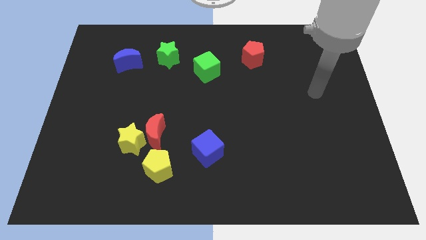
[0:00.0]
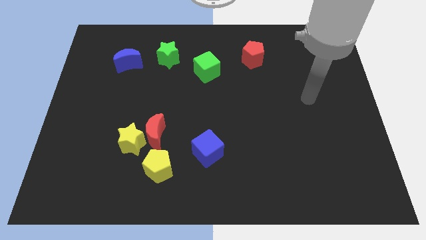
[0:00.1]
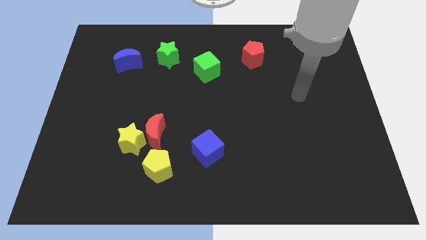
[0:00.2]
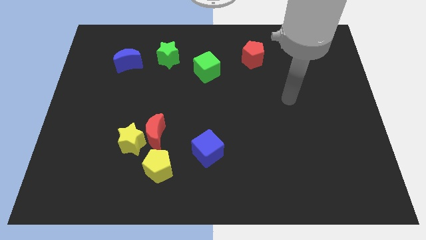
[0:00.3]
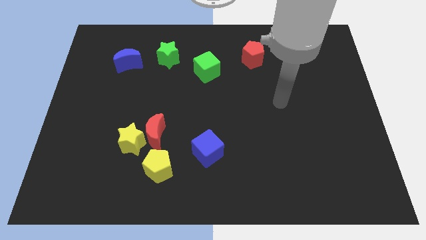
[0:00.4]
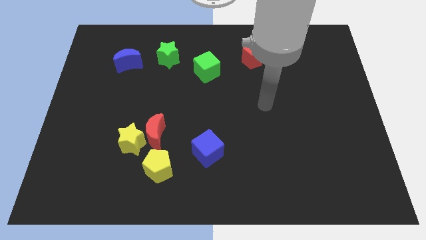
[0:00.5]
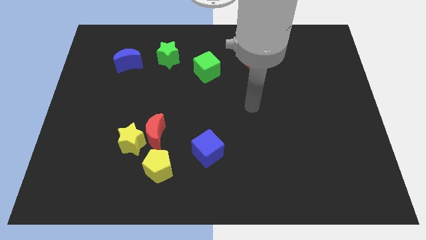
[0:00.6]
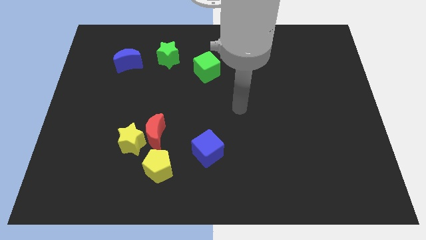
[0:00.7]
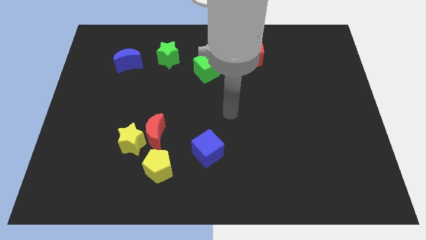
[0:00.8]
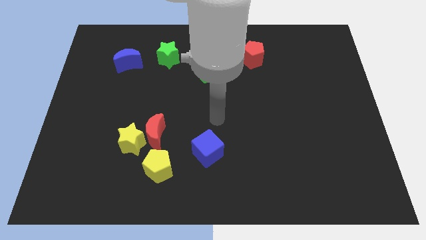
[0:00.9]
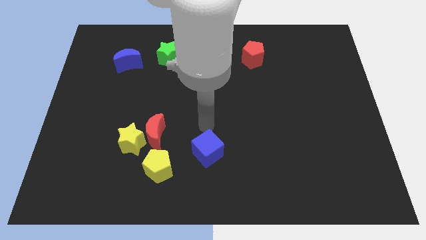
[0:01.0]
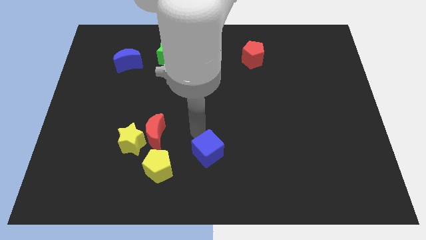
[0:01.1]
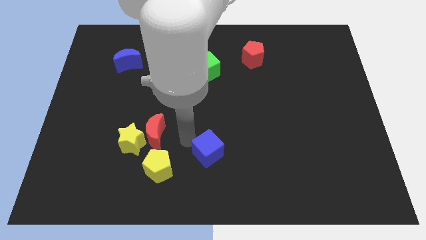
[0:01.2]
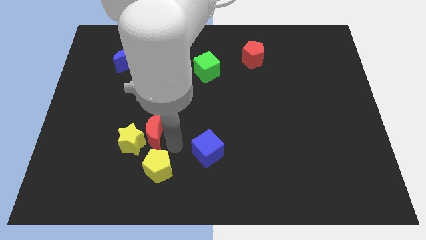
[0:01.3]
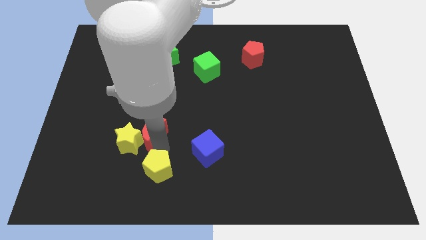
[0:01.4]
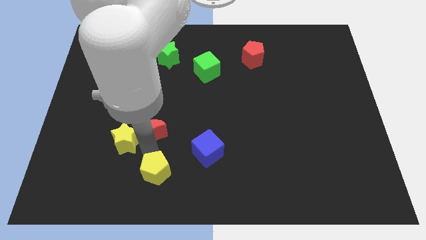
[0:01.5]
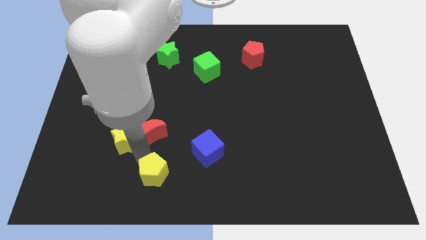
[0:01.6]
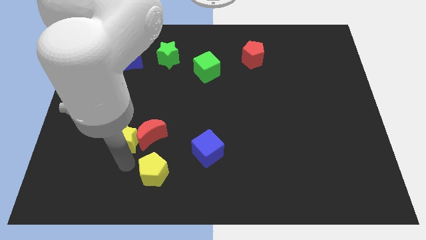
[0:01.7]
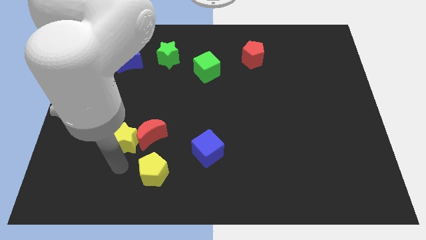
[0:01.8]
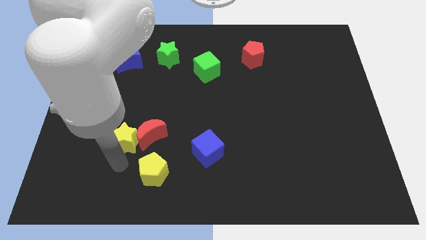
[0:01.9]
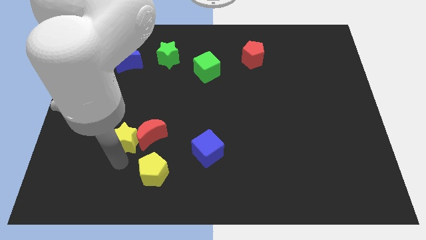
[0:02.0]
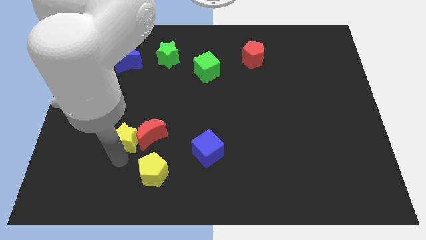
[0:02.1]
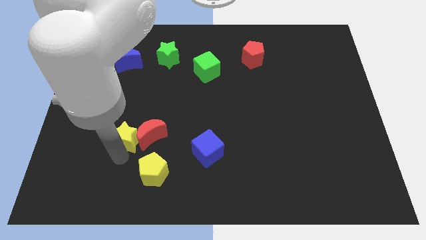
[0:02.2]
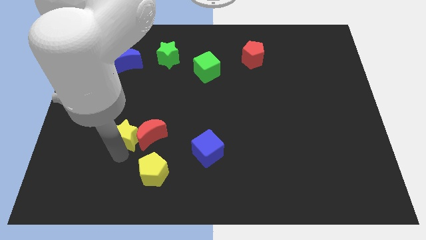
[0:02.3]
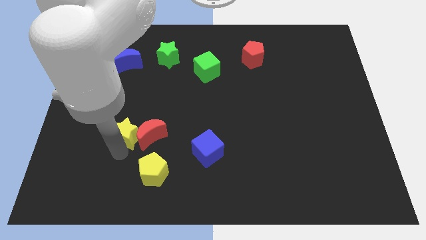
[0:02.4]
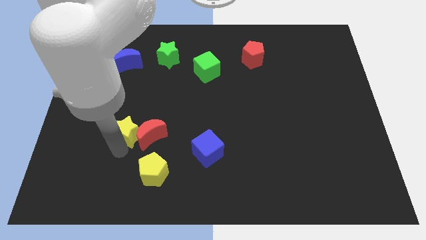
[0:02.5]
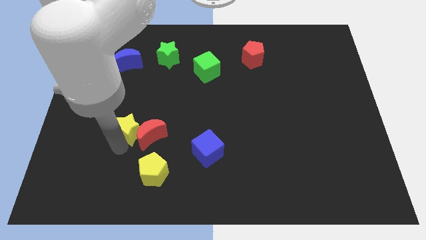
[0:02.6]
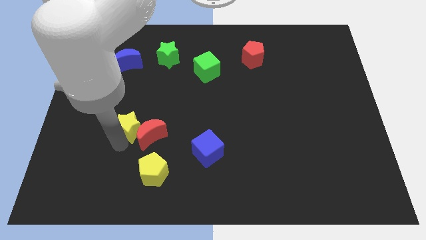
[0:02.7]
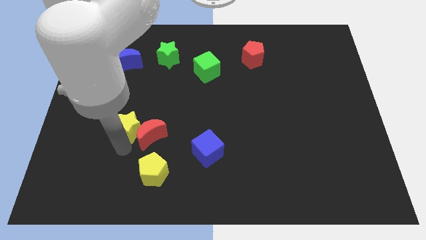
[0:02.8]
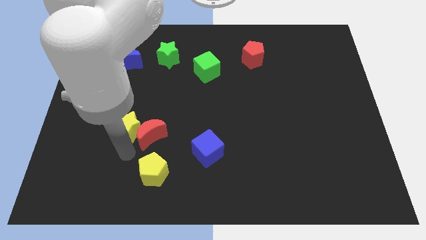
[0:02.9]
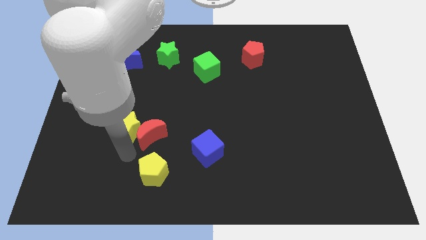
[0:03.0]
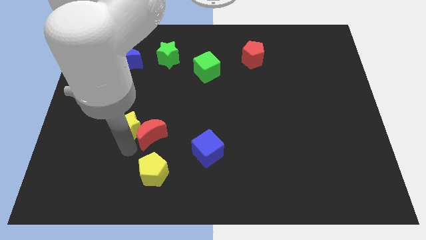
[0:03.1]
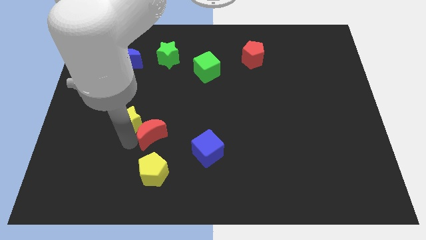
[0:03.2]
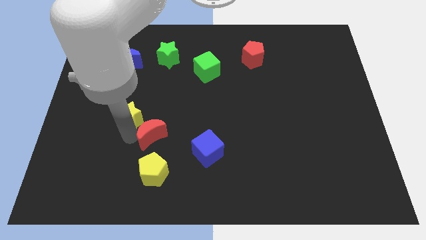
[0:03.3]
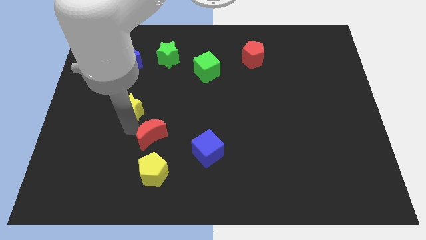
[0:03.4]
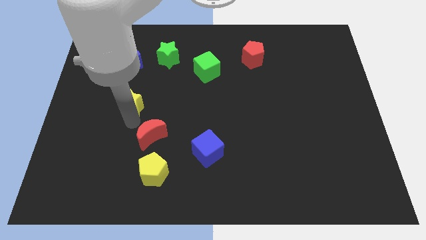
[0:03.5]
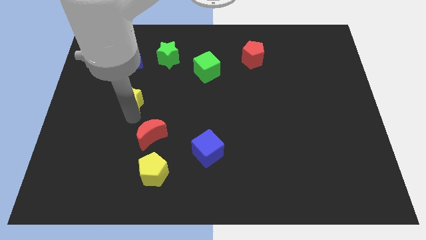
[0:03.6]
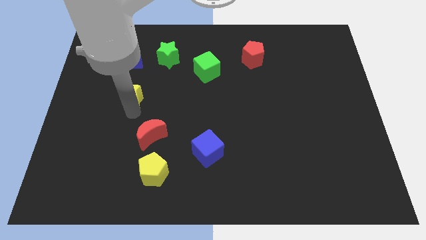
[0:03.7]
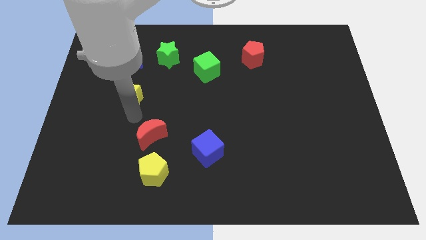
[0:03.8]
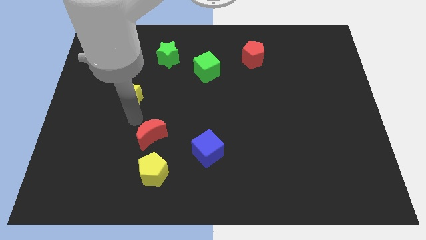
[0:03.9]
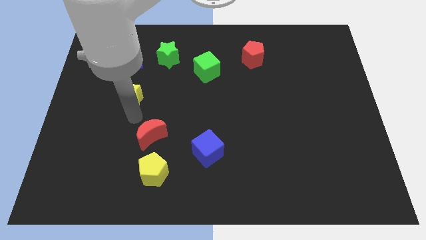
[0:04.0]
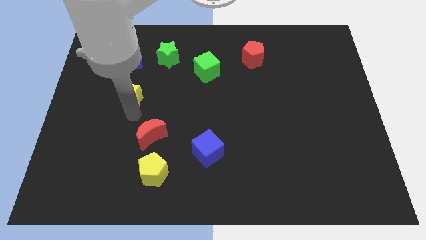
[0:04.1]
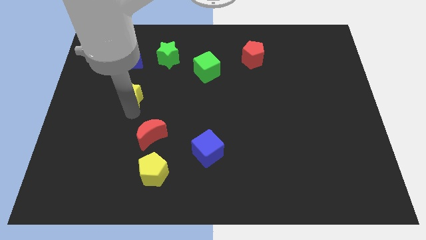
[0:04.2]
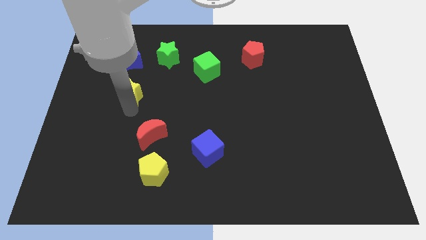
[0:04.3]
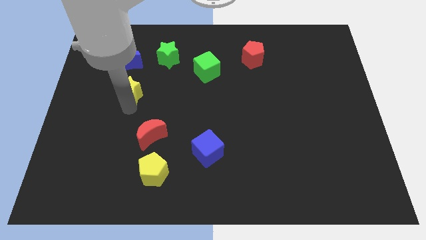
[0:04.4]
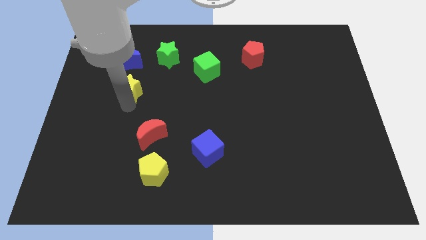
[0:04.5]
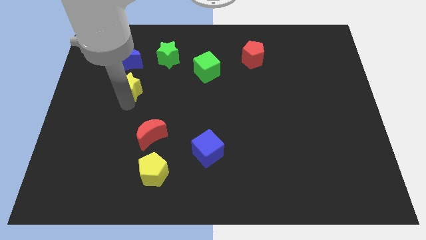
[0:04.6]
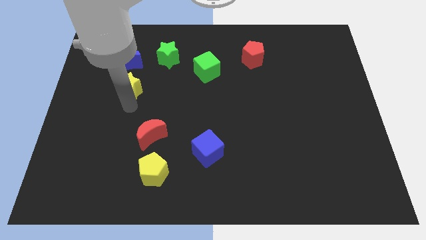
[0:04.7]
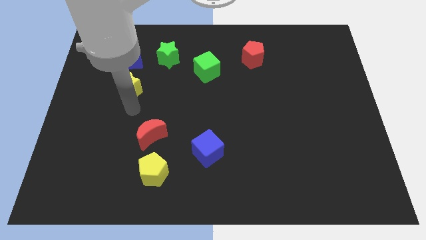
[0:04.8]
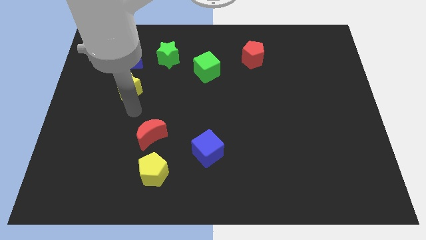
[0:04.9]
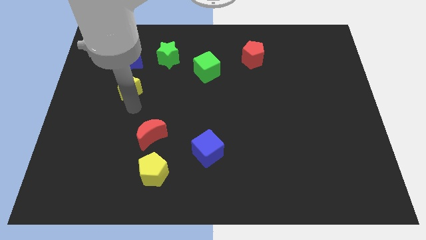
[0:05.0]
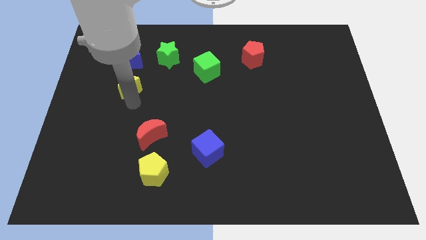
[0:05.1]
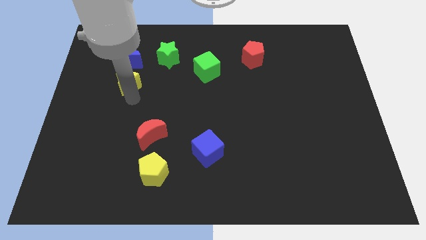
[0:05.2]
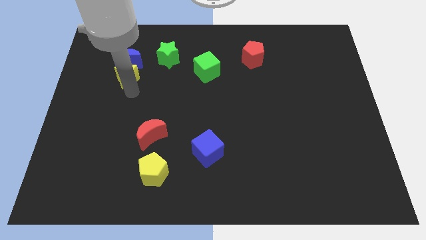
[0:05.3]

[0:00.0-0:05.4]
push the yellow star next to the blue moon

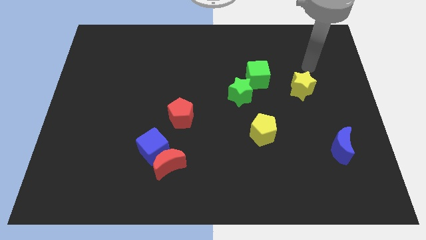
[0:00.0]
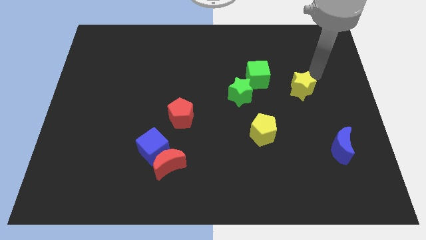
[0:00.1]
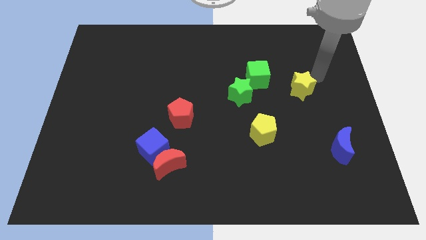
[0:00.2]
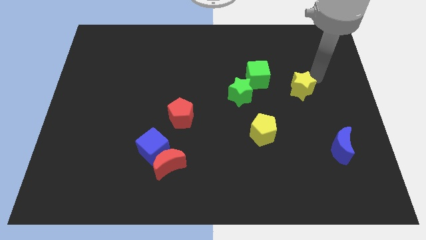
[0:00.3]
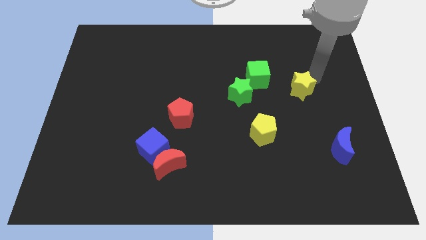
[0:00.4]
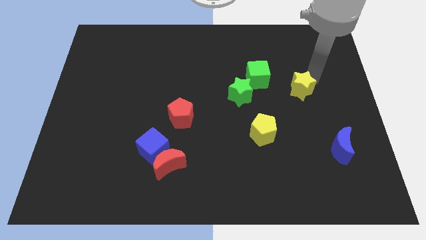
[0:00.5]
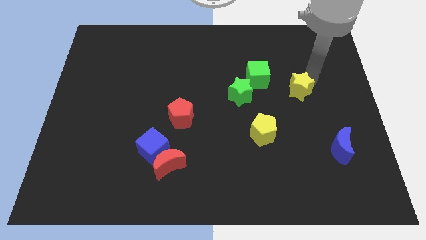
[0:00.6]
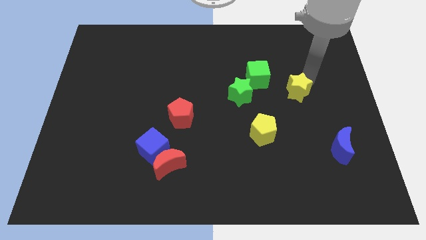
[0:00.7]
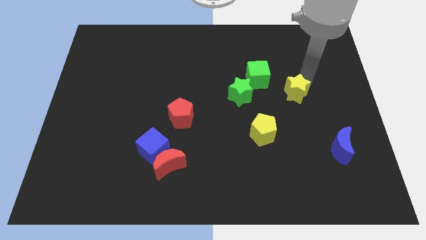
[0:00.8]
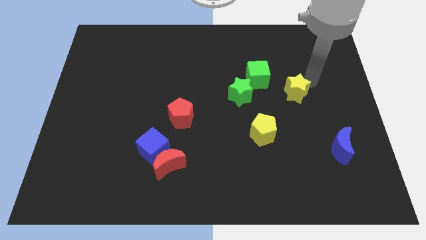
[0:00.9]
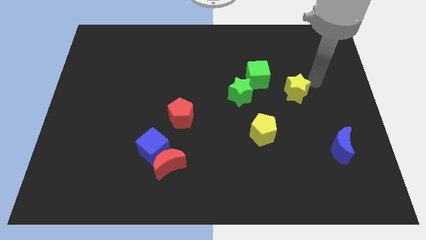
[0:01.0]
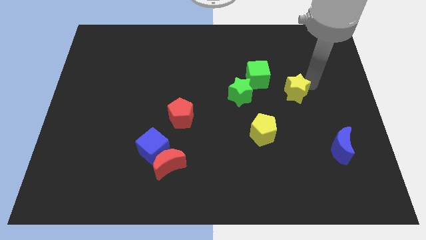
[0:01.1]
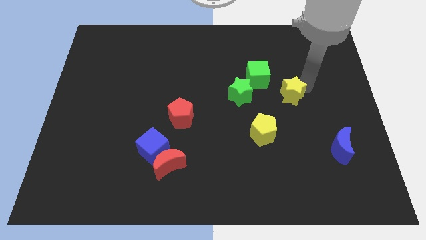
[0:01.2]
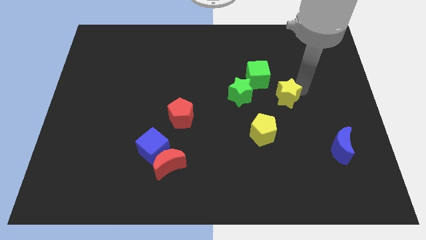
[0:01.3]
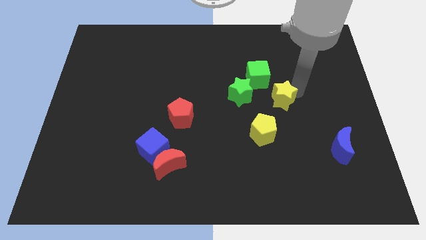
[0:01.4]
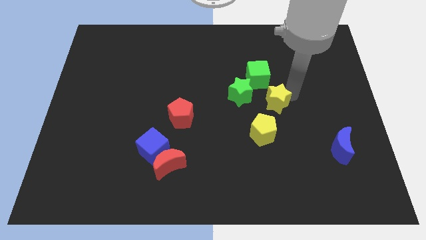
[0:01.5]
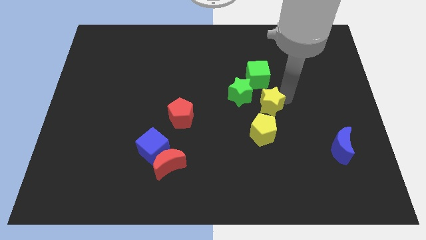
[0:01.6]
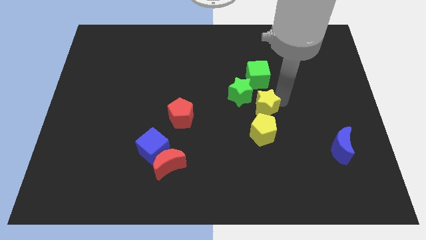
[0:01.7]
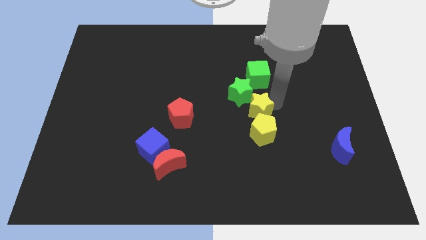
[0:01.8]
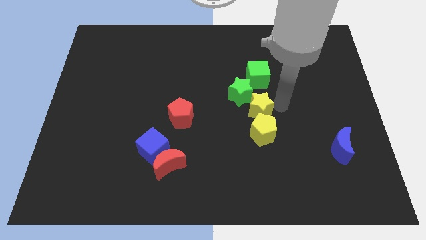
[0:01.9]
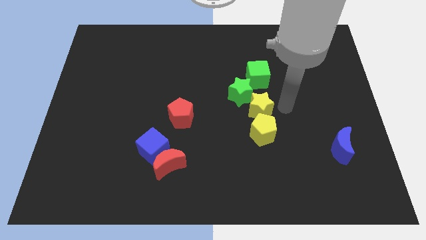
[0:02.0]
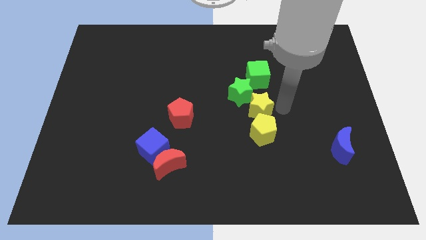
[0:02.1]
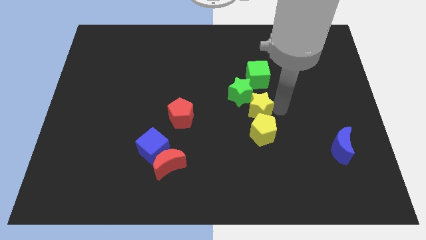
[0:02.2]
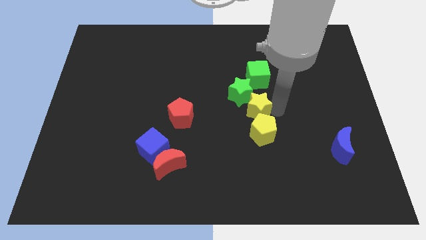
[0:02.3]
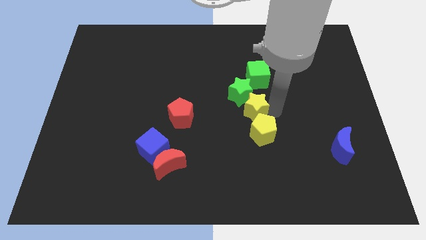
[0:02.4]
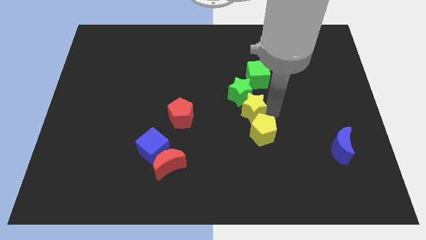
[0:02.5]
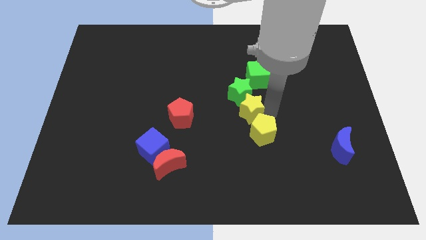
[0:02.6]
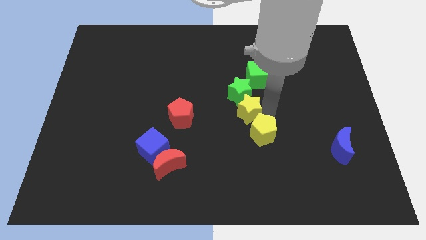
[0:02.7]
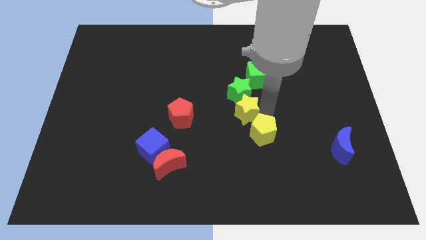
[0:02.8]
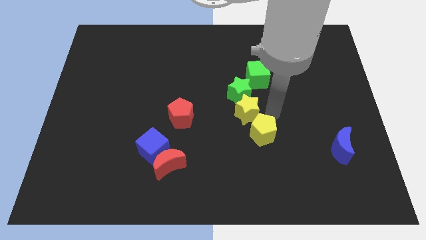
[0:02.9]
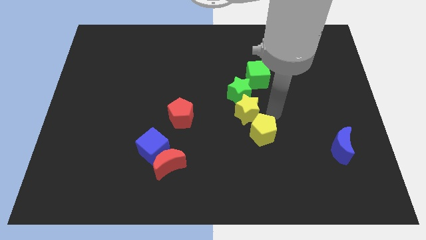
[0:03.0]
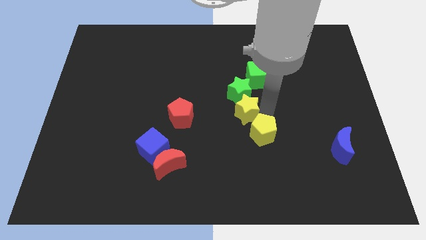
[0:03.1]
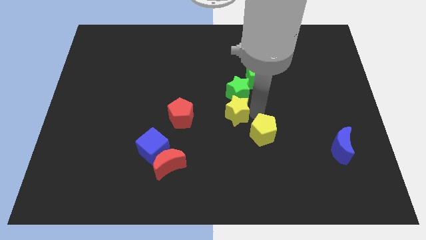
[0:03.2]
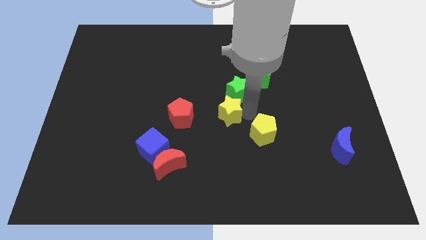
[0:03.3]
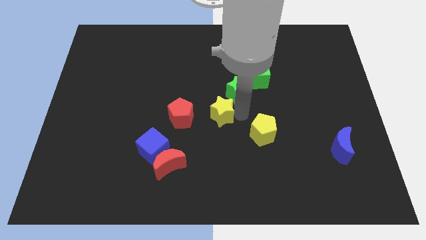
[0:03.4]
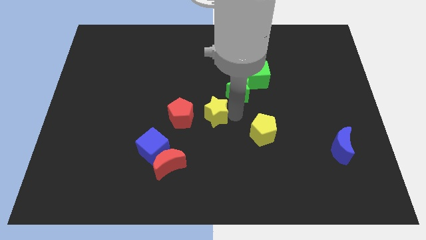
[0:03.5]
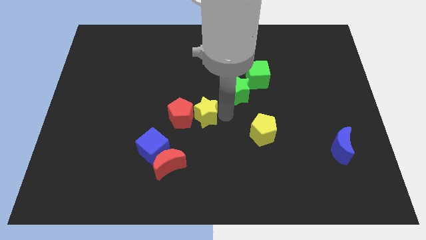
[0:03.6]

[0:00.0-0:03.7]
move the yellow star towards the red pentagon
